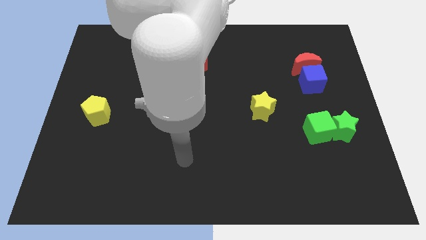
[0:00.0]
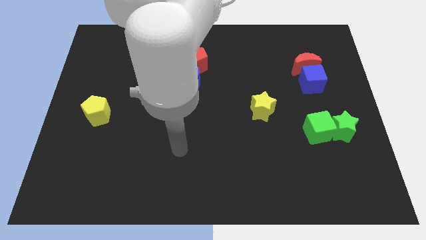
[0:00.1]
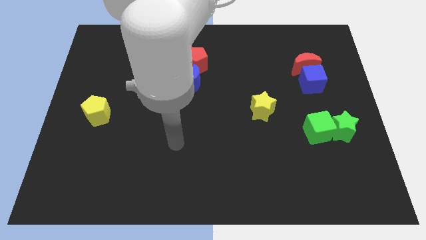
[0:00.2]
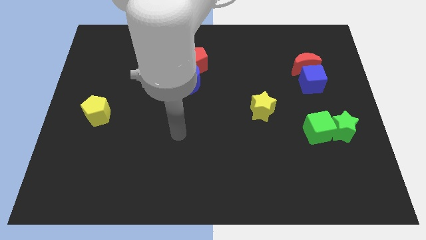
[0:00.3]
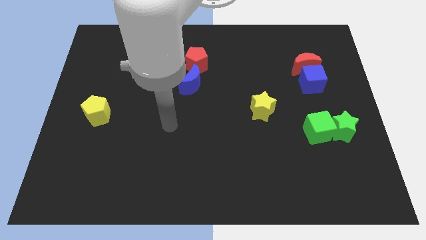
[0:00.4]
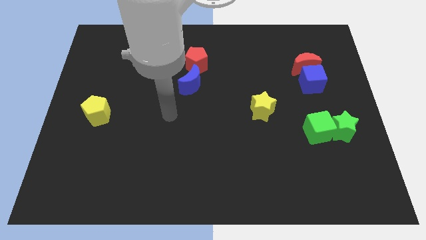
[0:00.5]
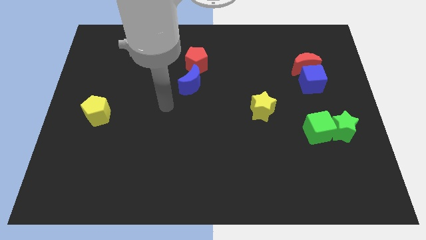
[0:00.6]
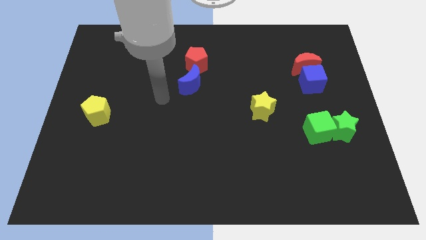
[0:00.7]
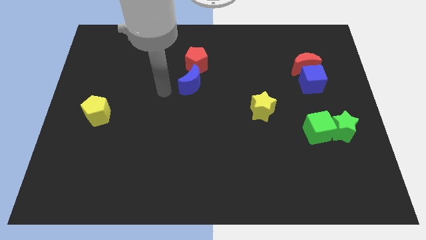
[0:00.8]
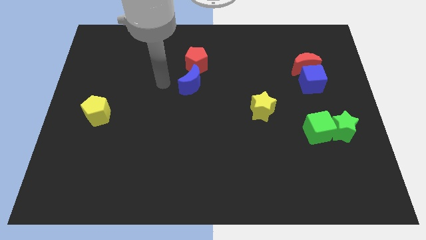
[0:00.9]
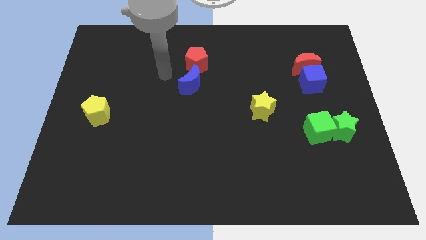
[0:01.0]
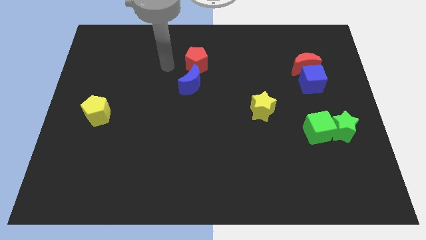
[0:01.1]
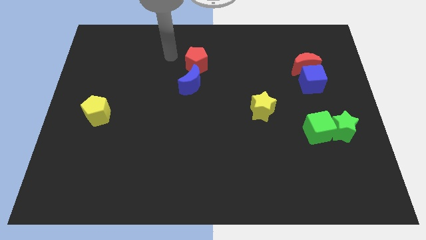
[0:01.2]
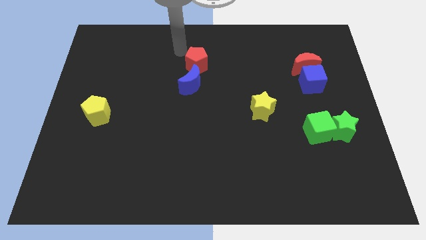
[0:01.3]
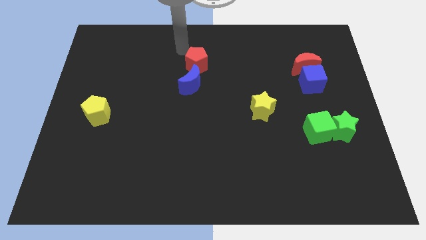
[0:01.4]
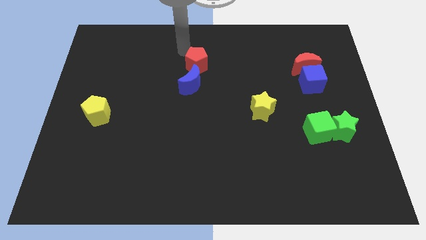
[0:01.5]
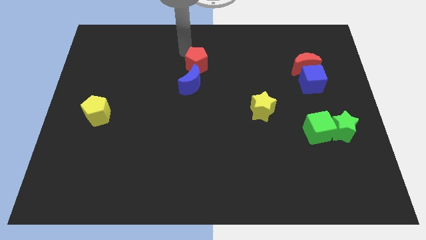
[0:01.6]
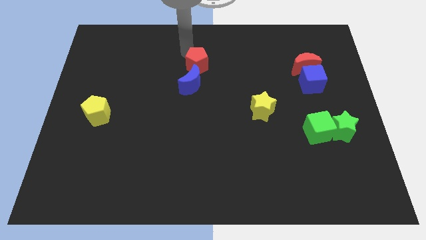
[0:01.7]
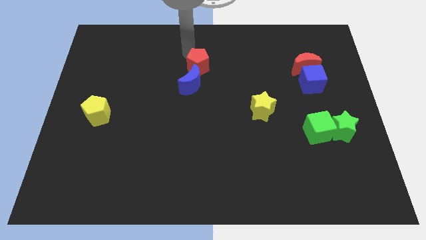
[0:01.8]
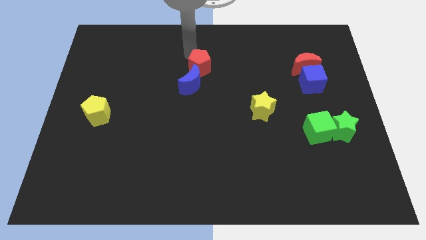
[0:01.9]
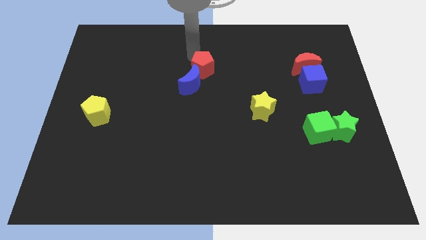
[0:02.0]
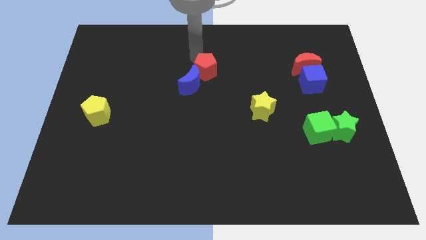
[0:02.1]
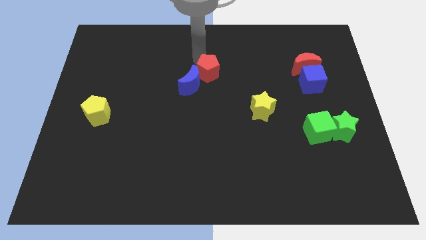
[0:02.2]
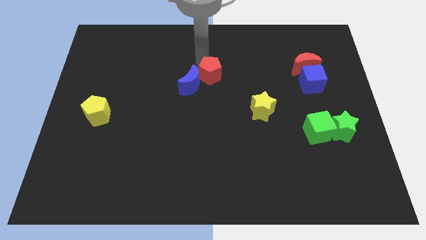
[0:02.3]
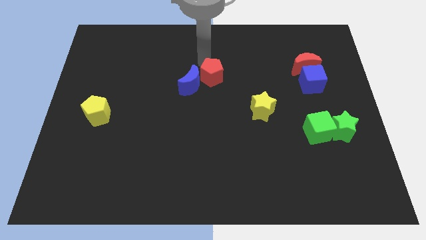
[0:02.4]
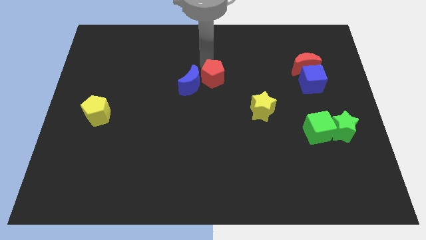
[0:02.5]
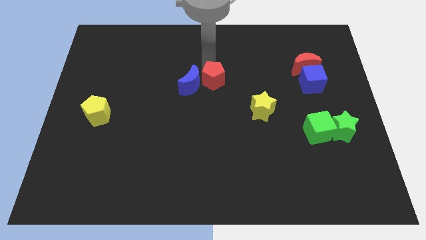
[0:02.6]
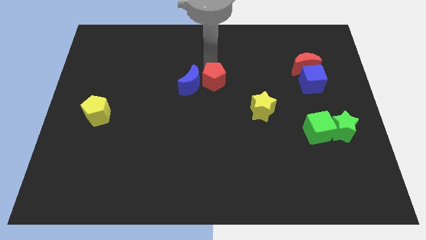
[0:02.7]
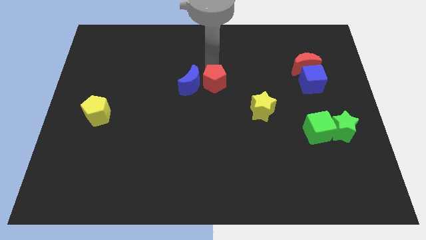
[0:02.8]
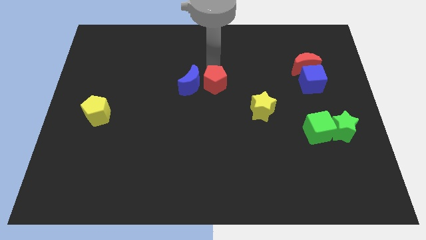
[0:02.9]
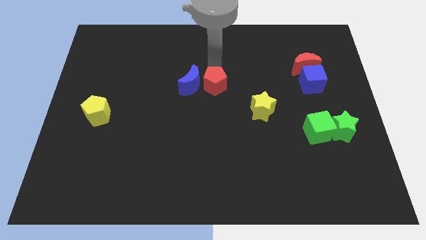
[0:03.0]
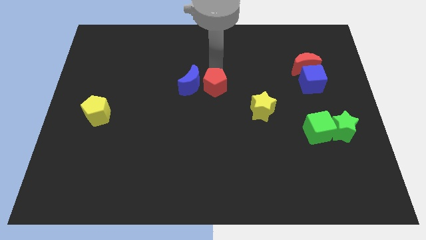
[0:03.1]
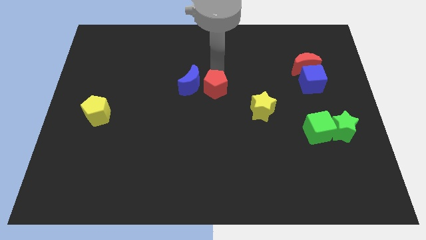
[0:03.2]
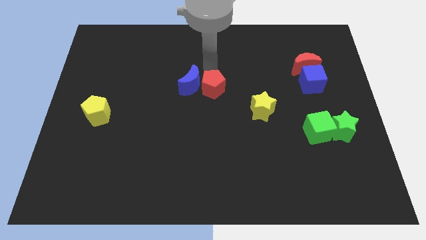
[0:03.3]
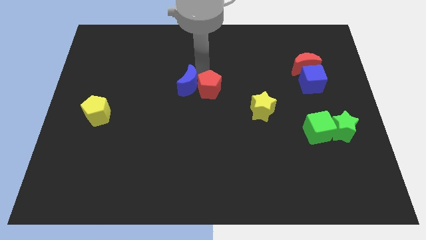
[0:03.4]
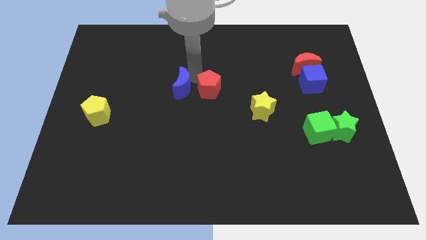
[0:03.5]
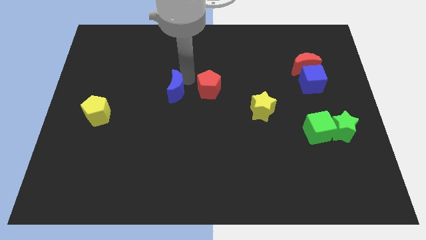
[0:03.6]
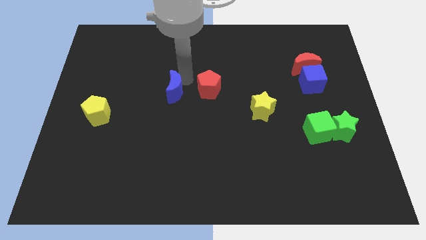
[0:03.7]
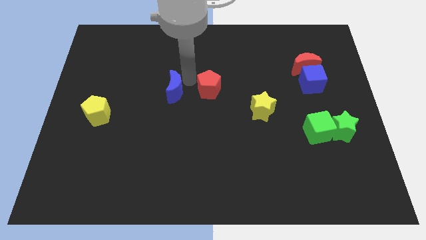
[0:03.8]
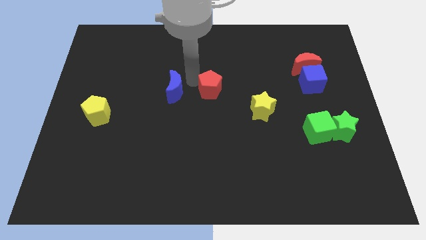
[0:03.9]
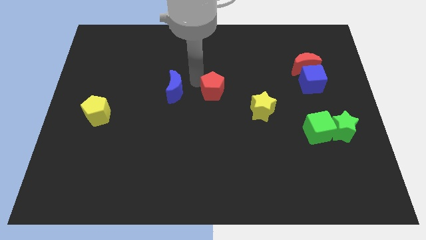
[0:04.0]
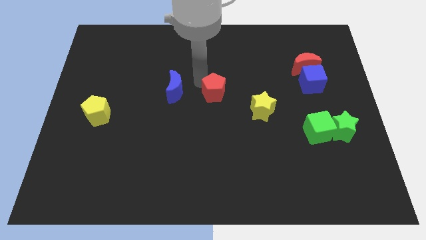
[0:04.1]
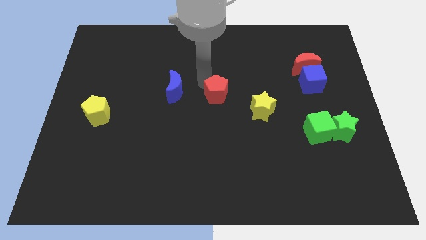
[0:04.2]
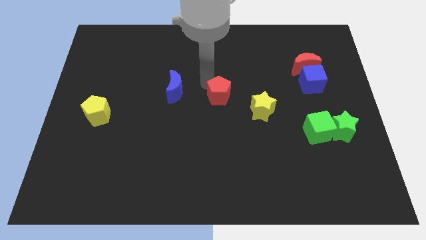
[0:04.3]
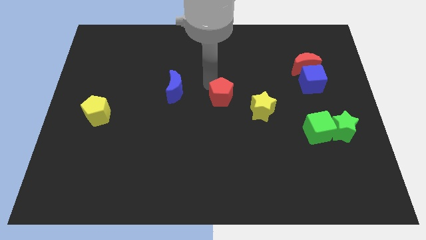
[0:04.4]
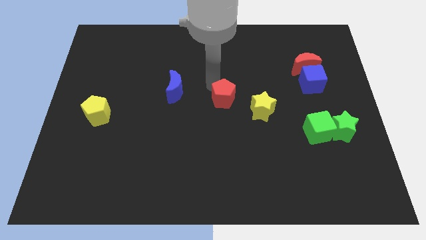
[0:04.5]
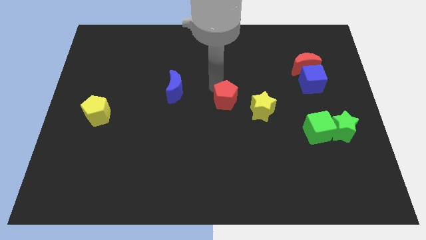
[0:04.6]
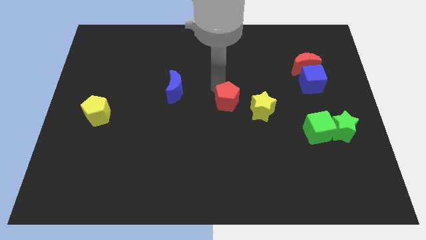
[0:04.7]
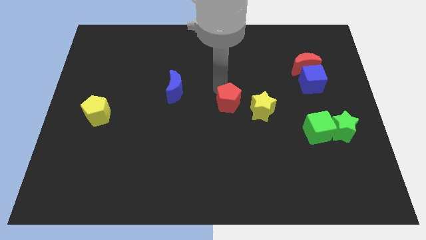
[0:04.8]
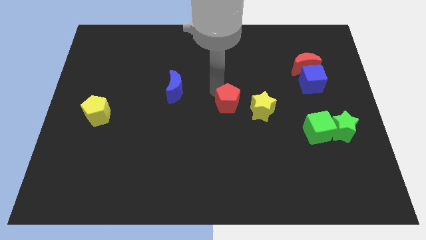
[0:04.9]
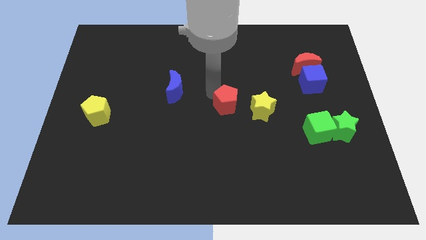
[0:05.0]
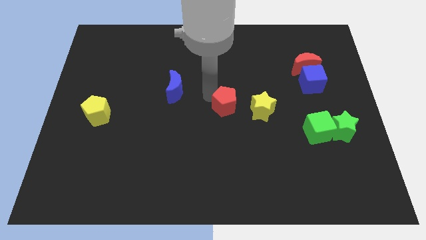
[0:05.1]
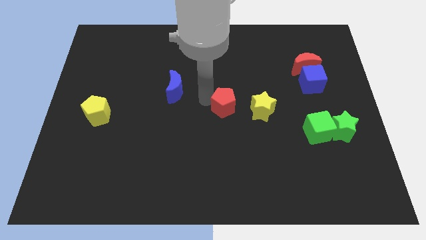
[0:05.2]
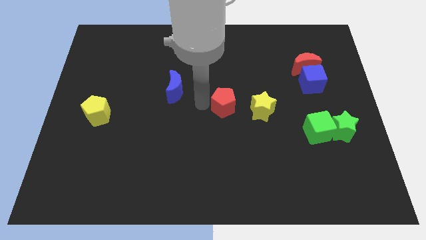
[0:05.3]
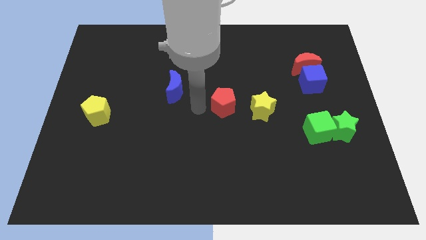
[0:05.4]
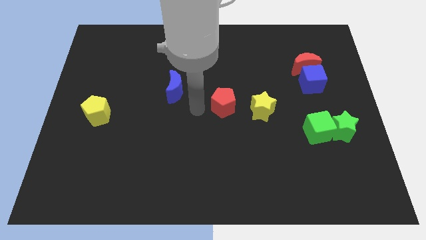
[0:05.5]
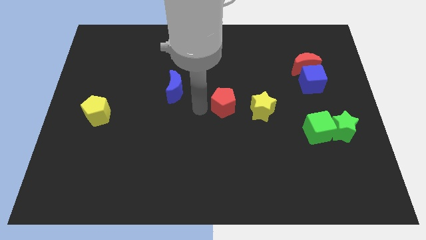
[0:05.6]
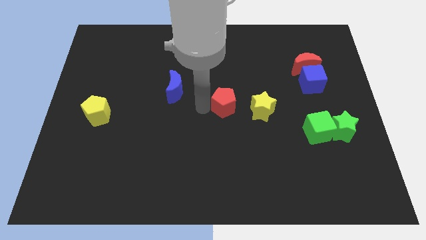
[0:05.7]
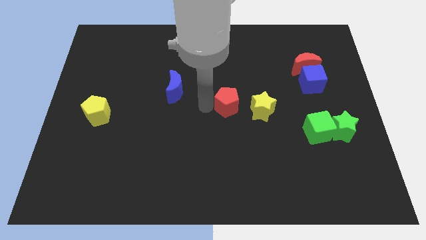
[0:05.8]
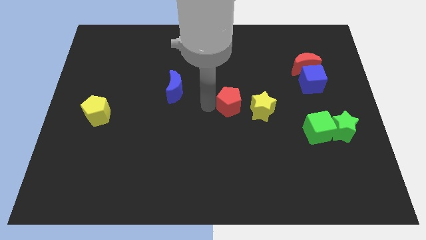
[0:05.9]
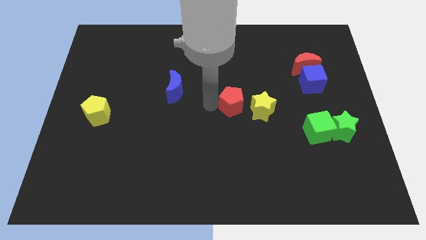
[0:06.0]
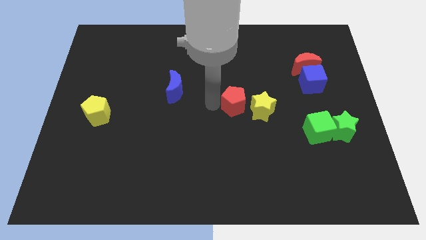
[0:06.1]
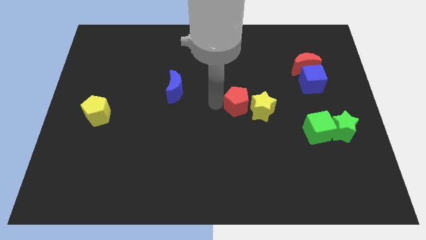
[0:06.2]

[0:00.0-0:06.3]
push the red pentagon towards the yellow star

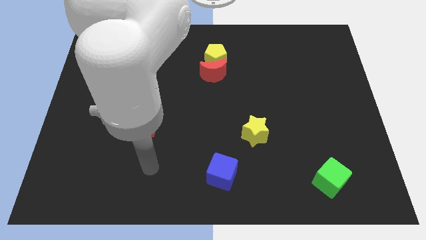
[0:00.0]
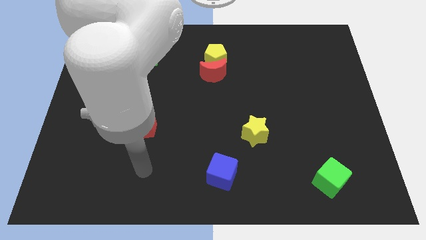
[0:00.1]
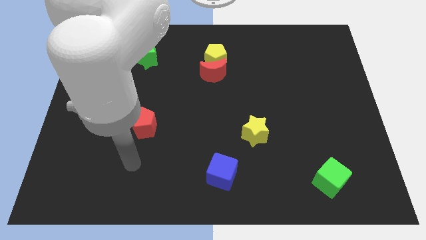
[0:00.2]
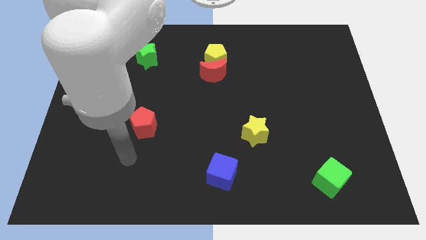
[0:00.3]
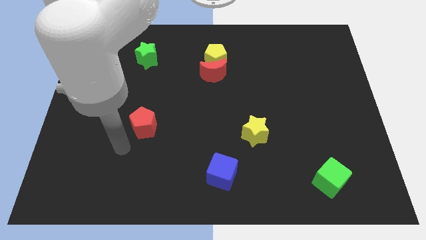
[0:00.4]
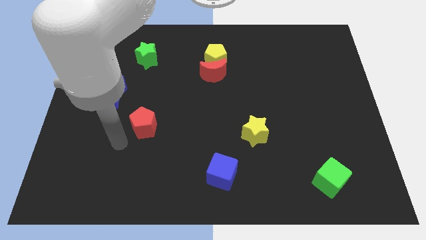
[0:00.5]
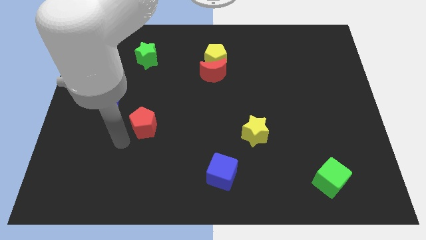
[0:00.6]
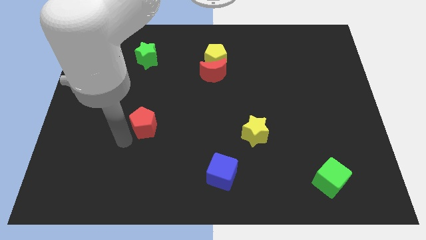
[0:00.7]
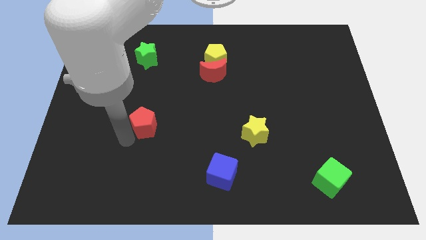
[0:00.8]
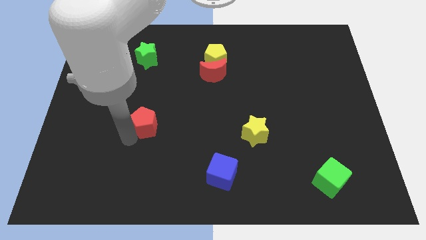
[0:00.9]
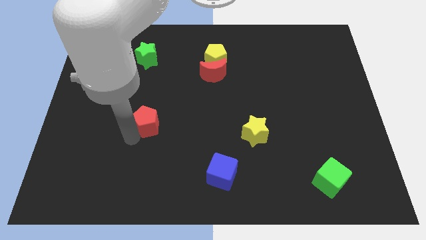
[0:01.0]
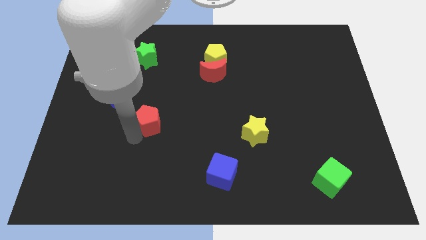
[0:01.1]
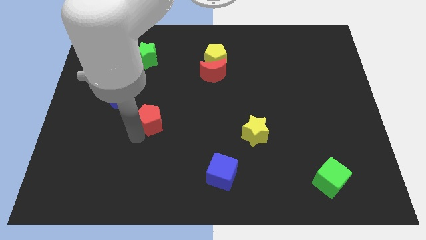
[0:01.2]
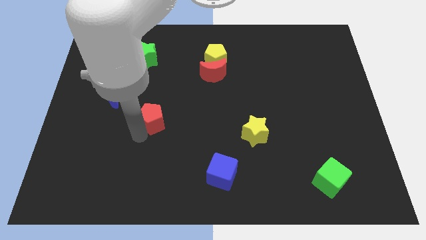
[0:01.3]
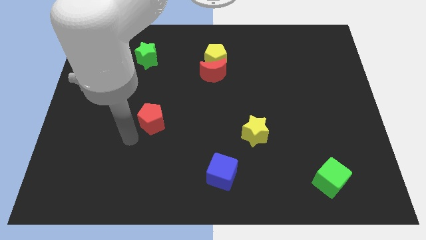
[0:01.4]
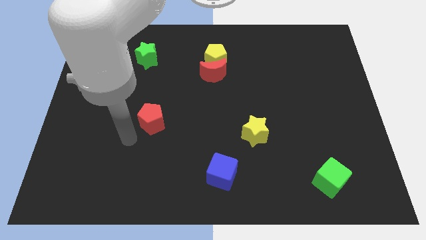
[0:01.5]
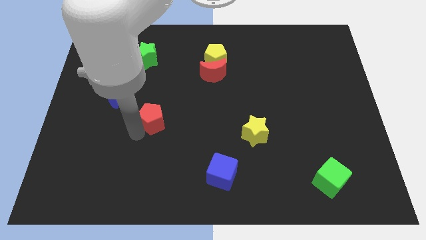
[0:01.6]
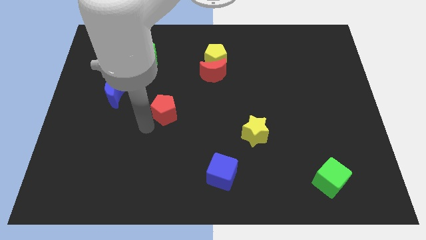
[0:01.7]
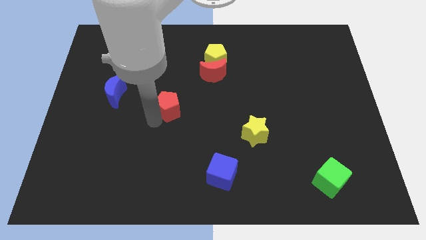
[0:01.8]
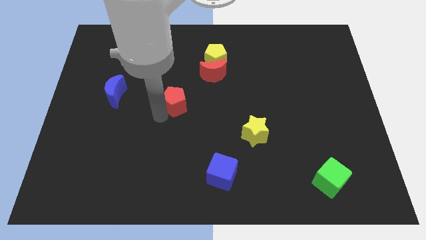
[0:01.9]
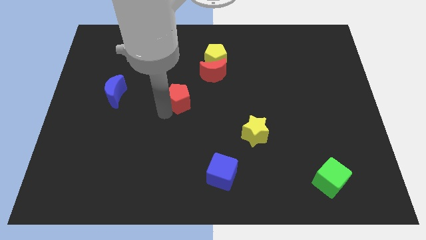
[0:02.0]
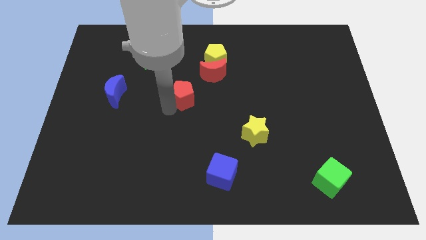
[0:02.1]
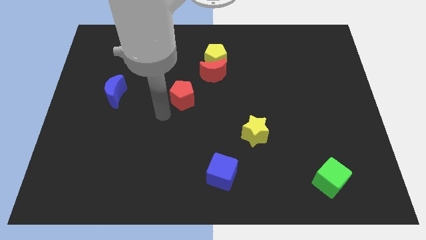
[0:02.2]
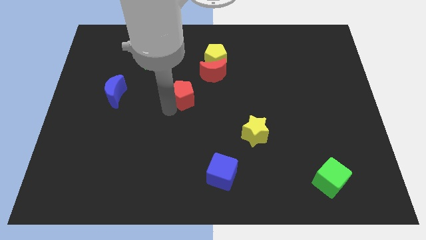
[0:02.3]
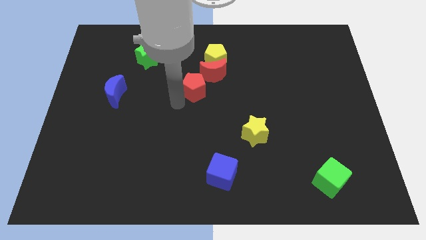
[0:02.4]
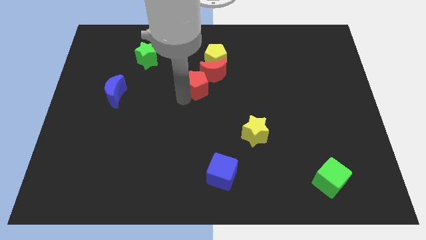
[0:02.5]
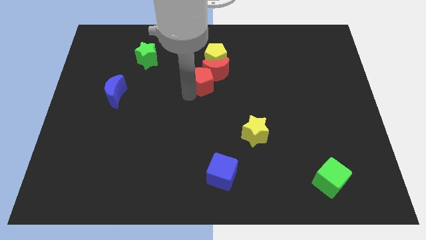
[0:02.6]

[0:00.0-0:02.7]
push the red pentagon close to the red moon
